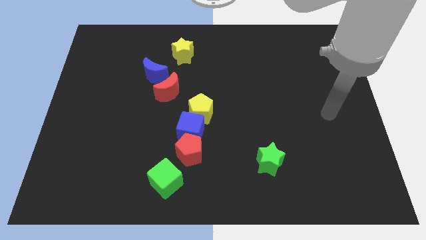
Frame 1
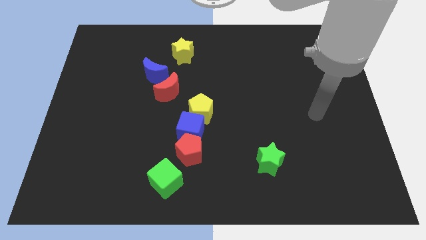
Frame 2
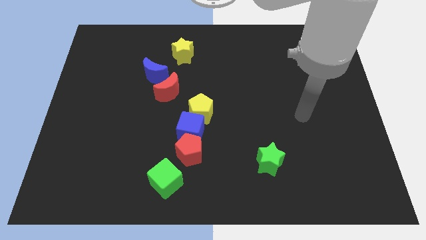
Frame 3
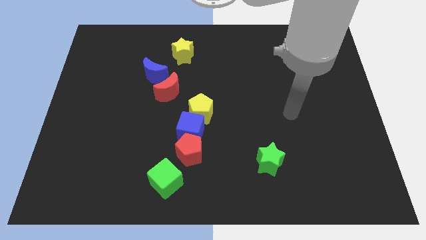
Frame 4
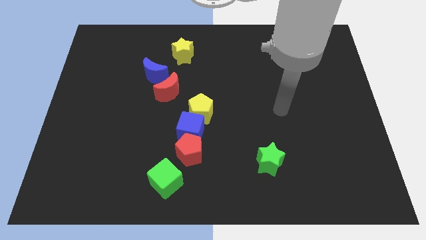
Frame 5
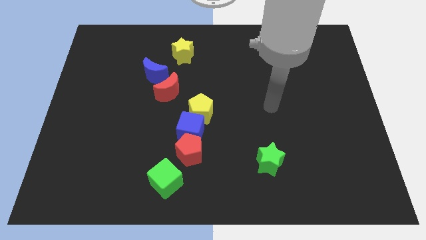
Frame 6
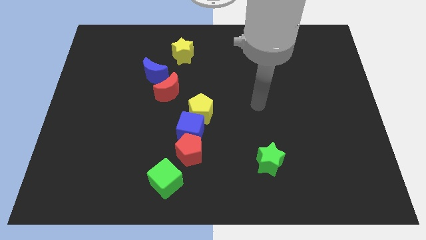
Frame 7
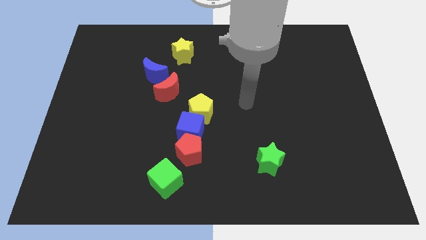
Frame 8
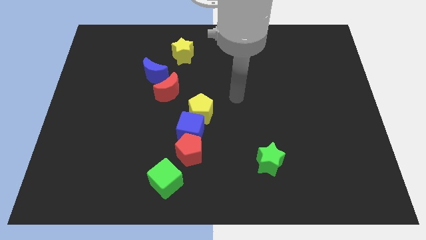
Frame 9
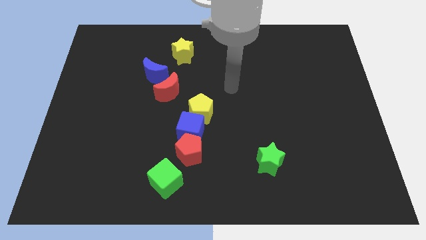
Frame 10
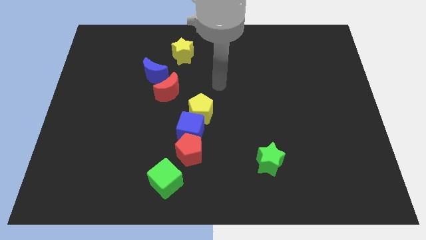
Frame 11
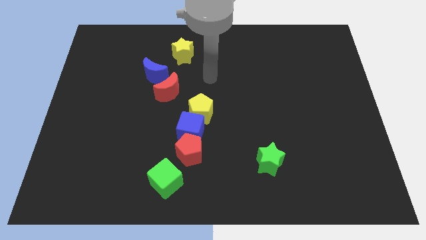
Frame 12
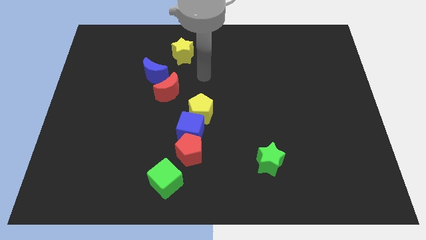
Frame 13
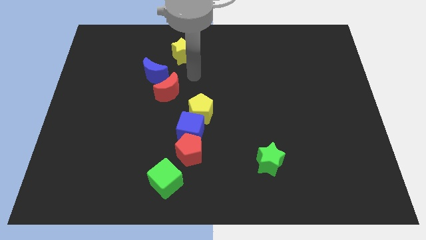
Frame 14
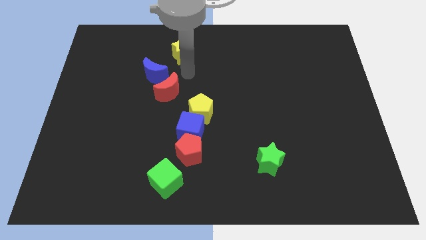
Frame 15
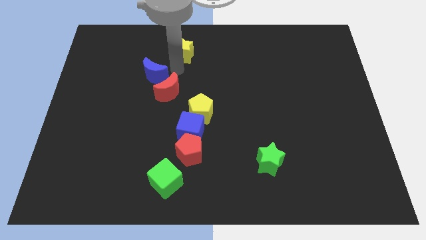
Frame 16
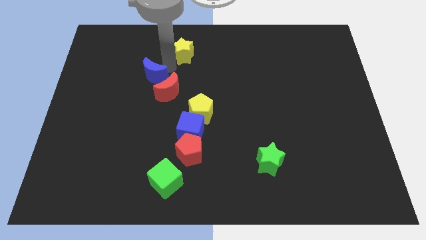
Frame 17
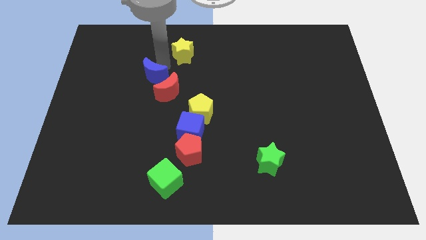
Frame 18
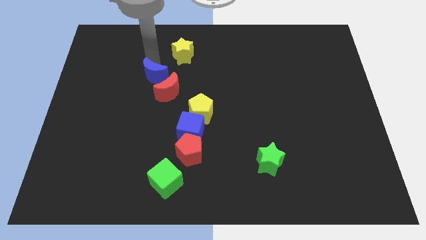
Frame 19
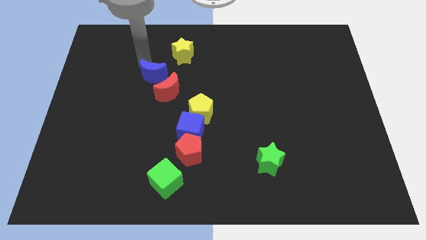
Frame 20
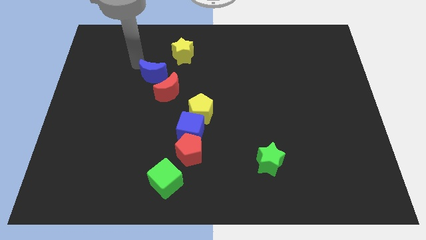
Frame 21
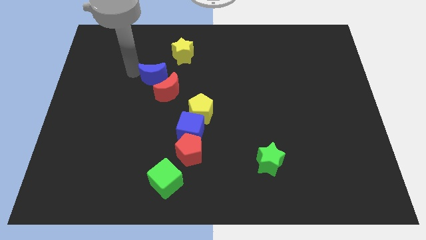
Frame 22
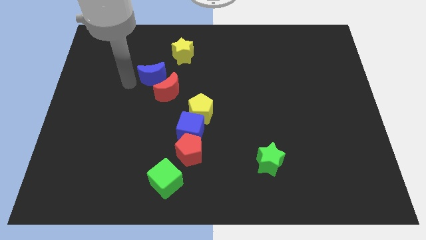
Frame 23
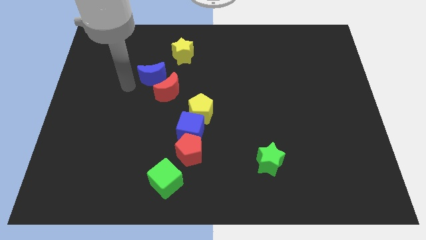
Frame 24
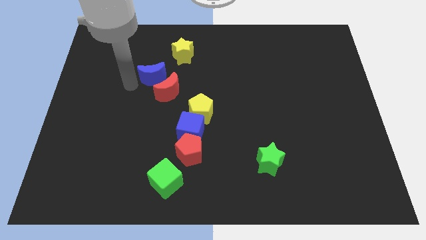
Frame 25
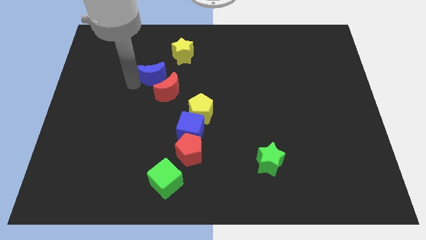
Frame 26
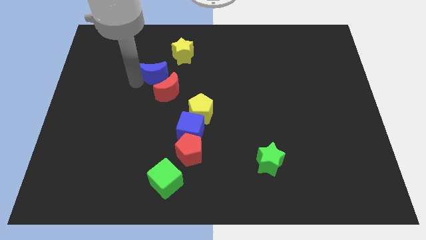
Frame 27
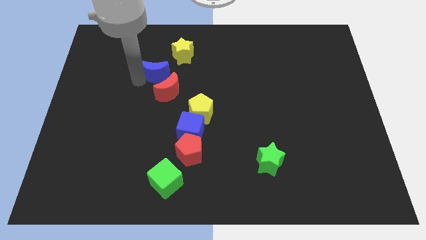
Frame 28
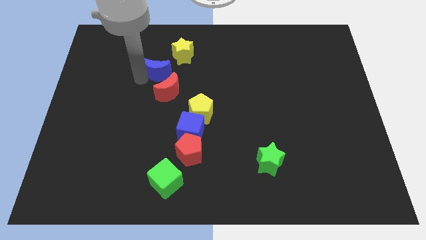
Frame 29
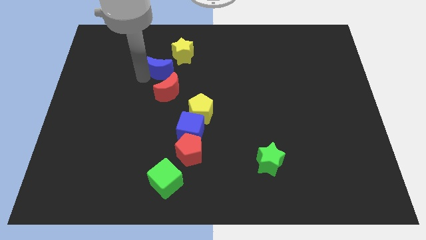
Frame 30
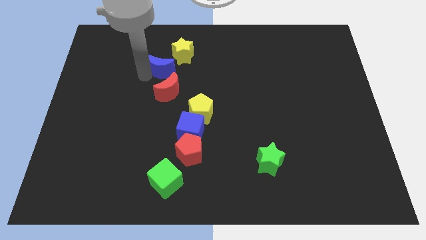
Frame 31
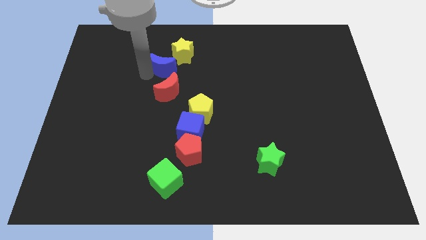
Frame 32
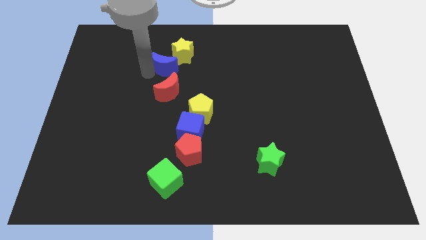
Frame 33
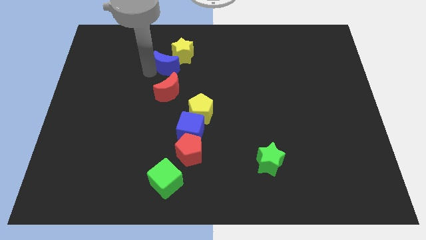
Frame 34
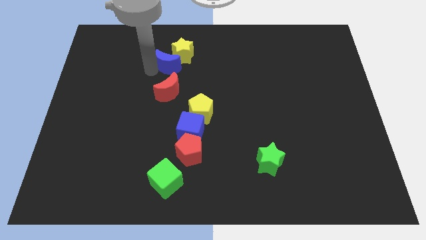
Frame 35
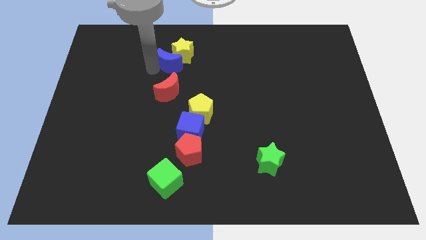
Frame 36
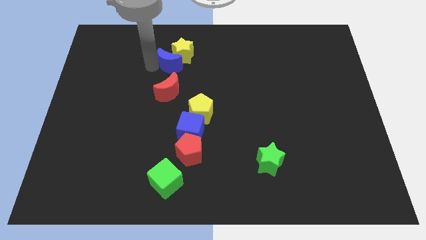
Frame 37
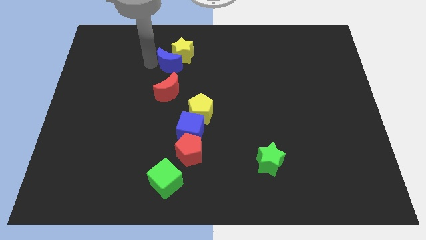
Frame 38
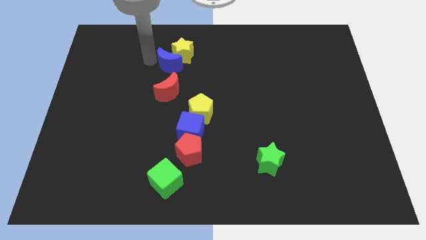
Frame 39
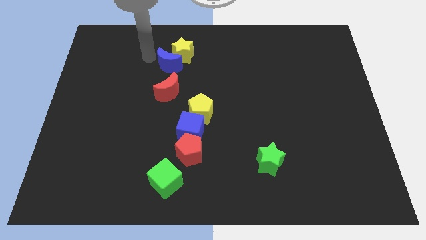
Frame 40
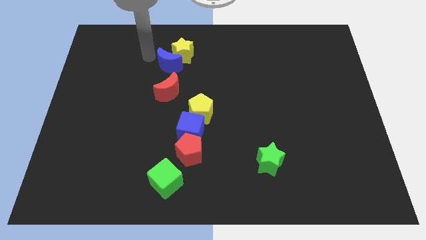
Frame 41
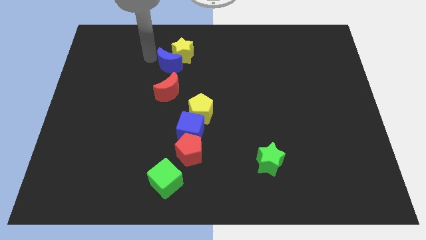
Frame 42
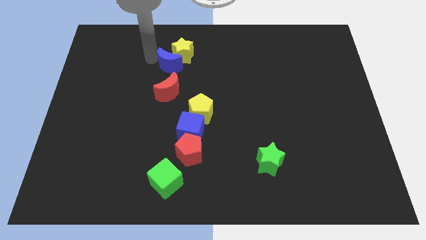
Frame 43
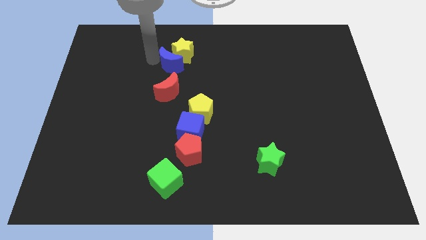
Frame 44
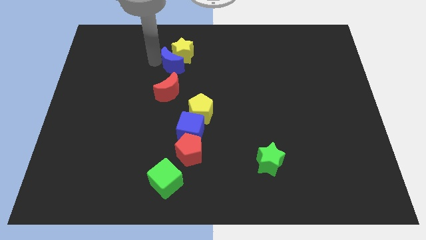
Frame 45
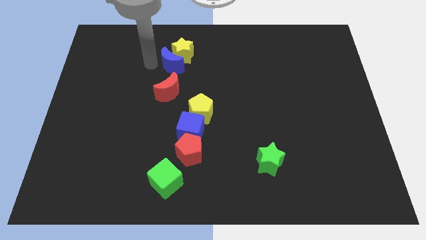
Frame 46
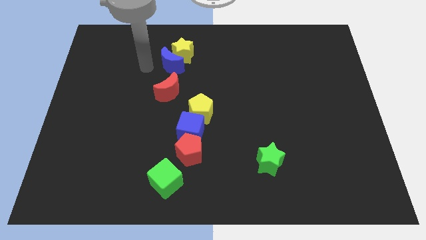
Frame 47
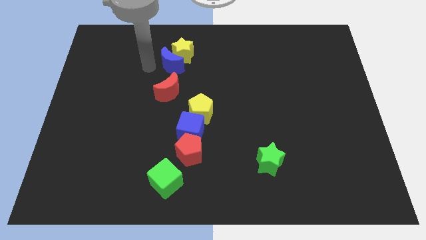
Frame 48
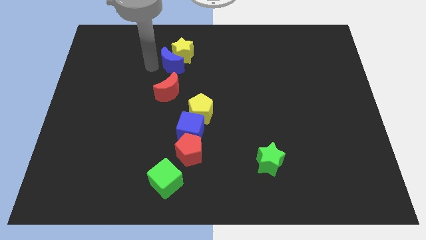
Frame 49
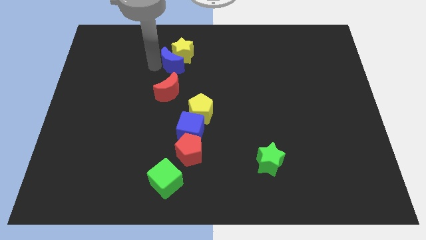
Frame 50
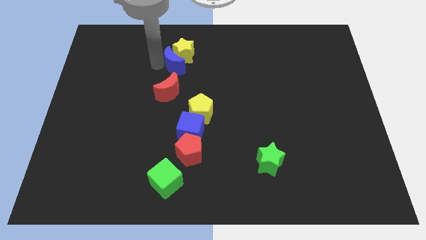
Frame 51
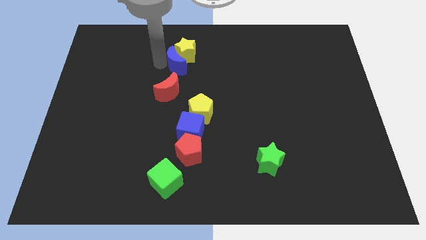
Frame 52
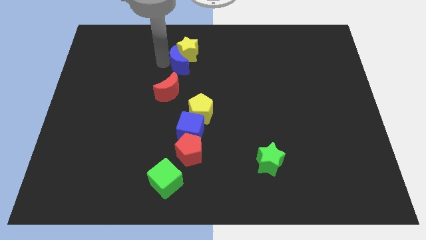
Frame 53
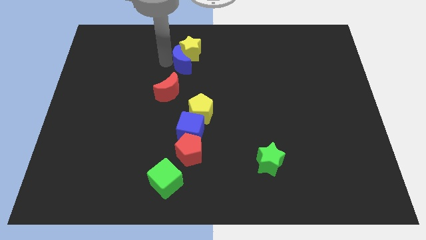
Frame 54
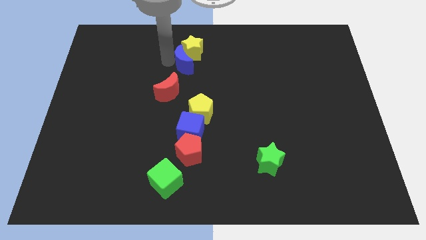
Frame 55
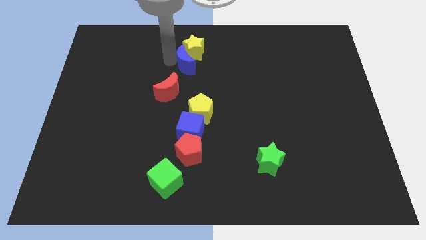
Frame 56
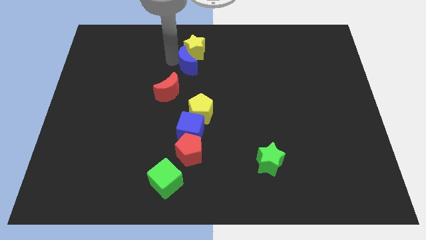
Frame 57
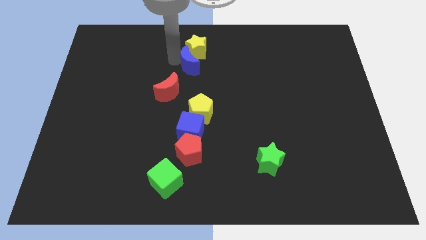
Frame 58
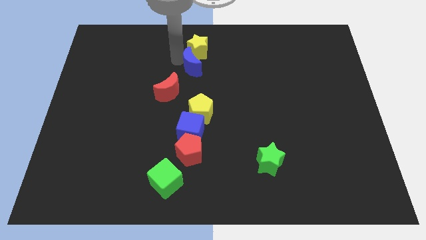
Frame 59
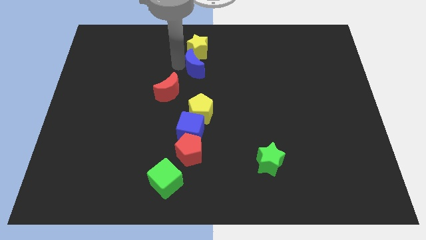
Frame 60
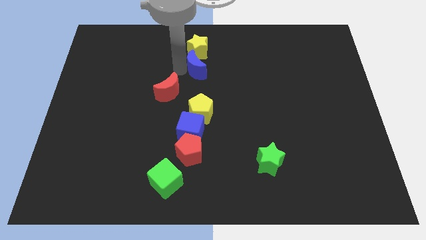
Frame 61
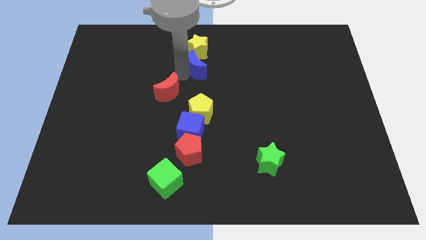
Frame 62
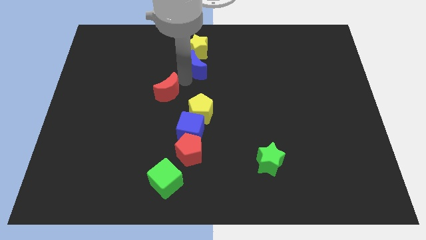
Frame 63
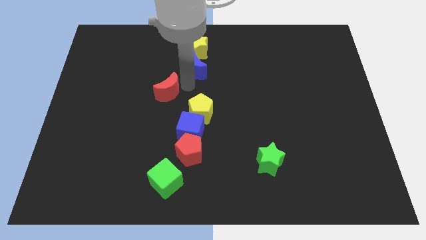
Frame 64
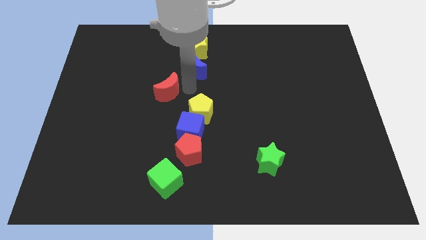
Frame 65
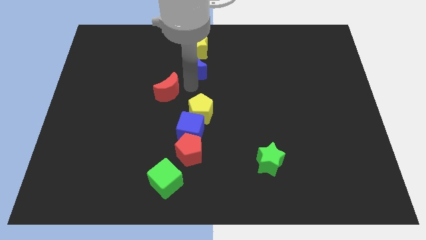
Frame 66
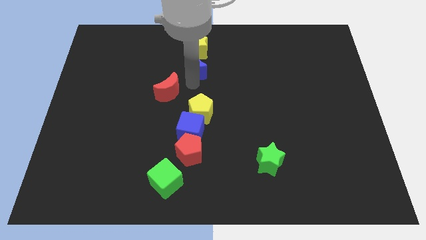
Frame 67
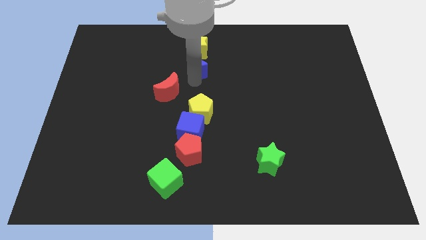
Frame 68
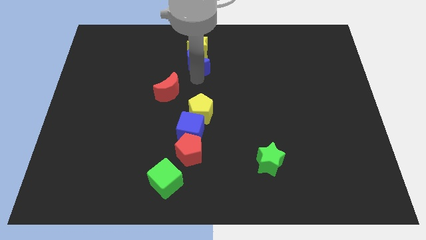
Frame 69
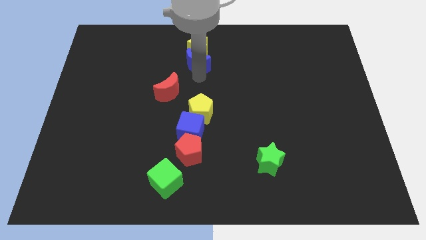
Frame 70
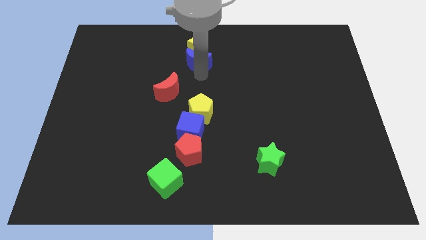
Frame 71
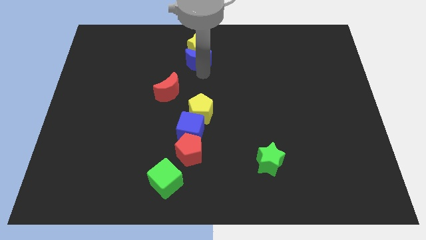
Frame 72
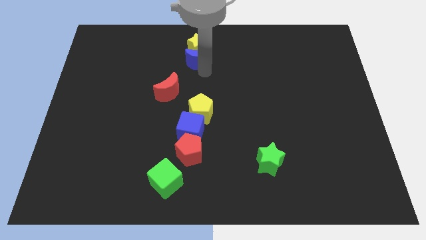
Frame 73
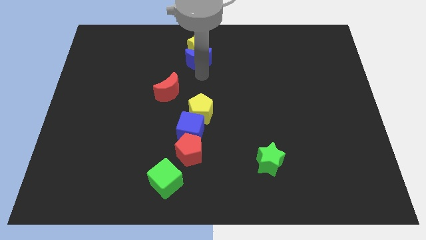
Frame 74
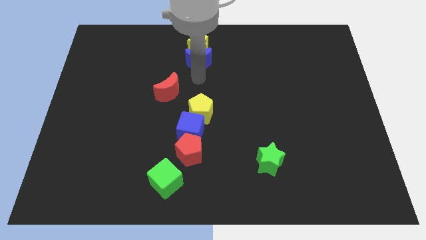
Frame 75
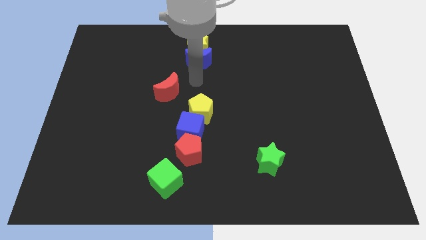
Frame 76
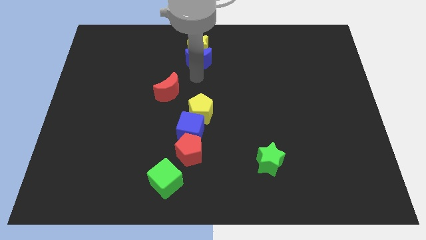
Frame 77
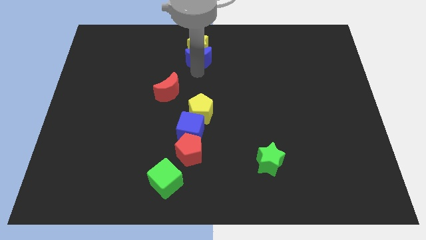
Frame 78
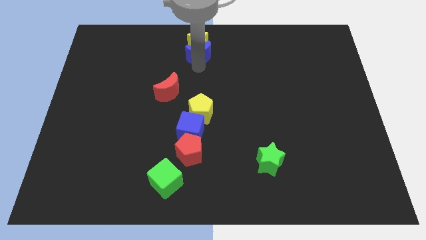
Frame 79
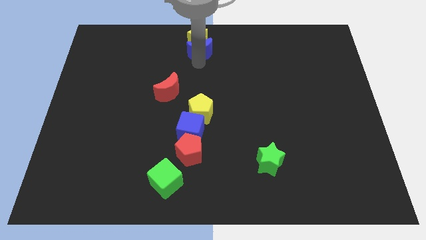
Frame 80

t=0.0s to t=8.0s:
slide the blue moon to the top
